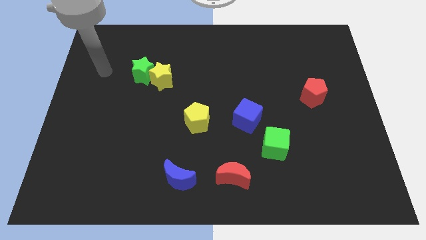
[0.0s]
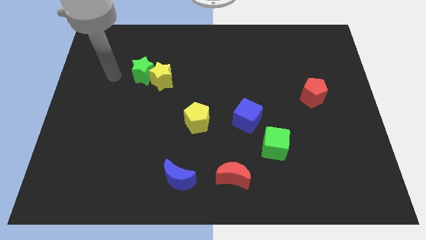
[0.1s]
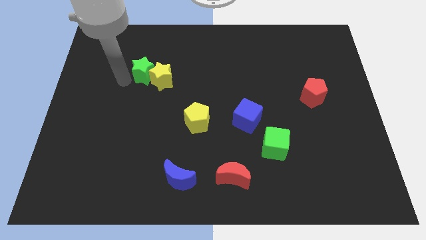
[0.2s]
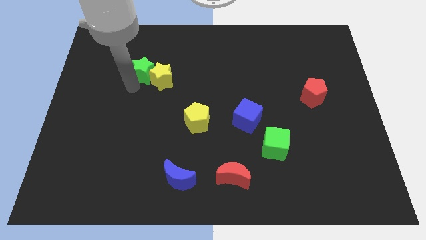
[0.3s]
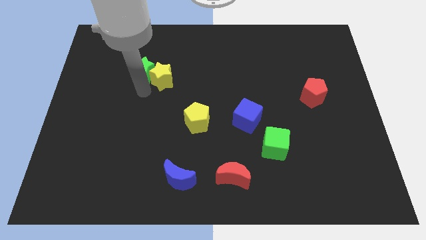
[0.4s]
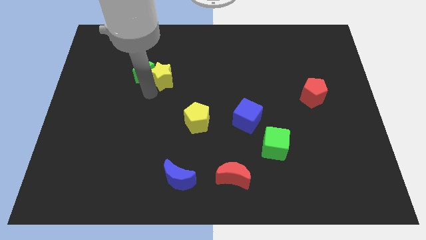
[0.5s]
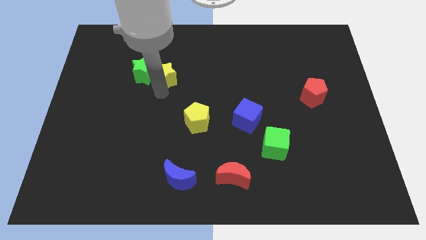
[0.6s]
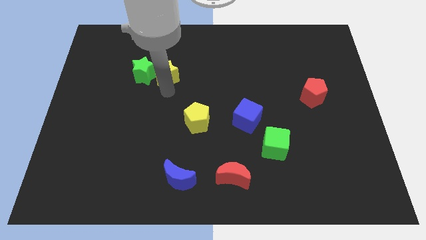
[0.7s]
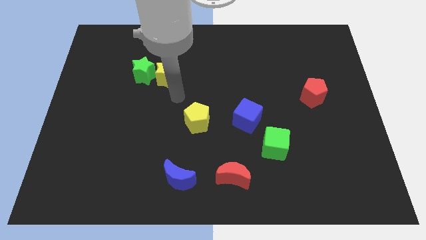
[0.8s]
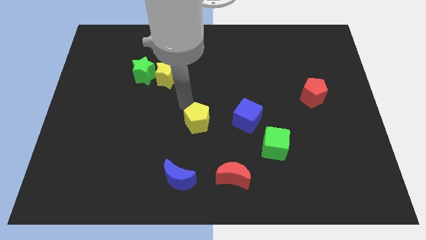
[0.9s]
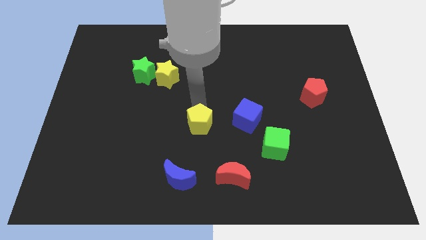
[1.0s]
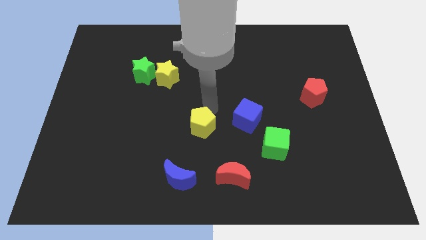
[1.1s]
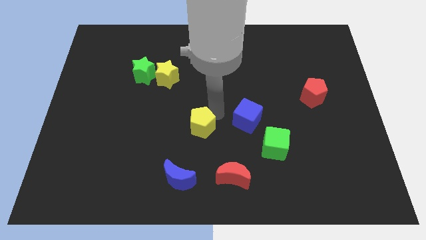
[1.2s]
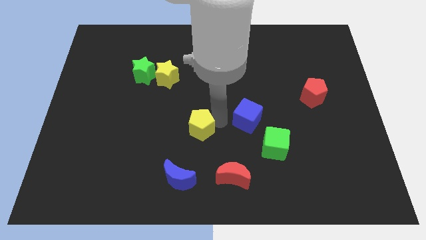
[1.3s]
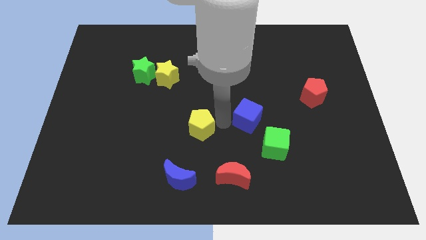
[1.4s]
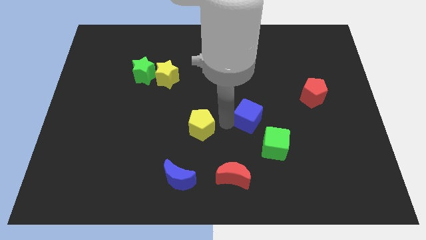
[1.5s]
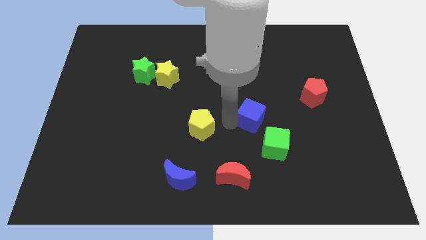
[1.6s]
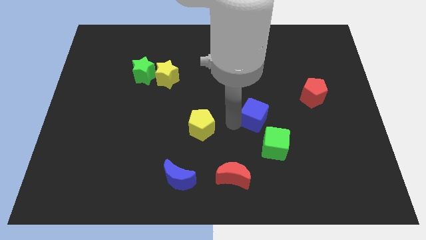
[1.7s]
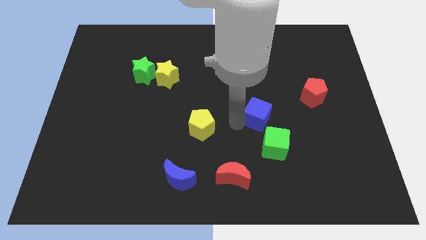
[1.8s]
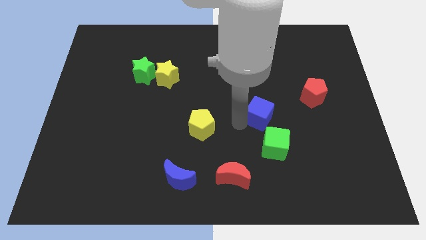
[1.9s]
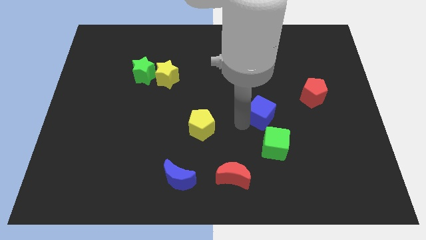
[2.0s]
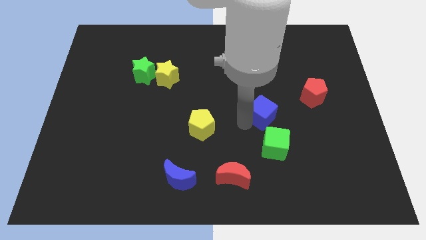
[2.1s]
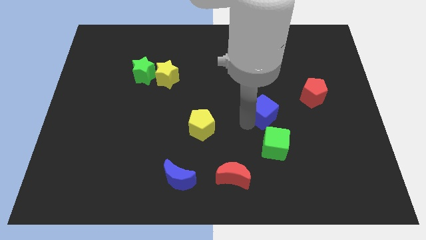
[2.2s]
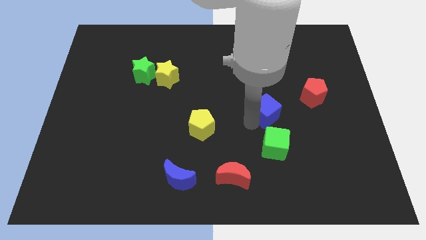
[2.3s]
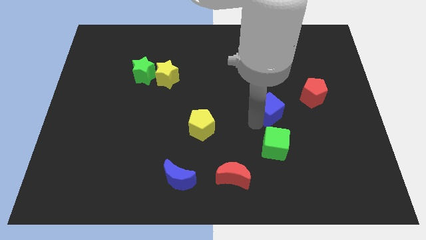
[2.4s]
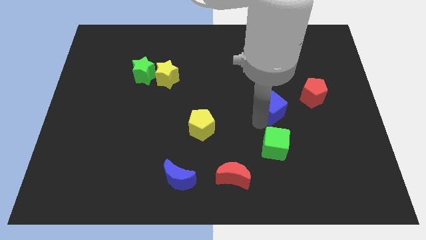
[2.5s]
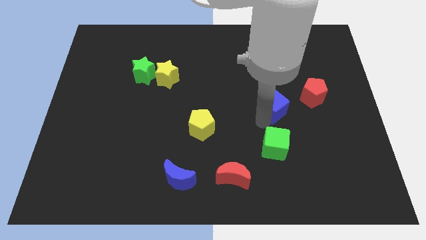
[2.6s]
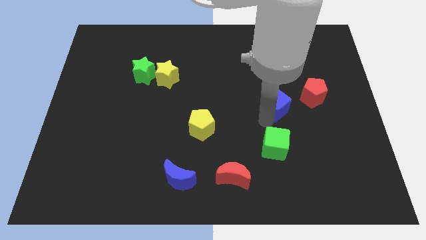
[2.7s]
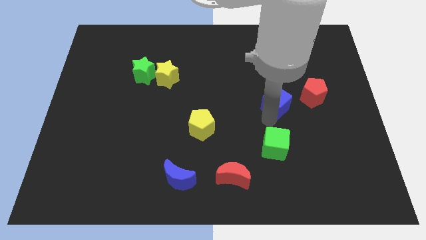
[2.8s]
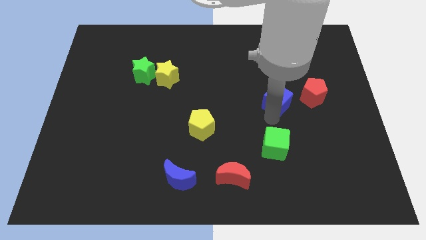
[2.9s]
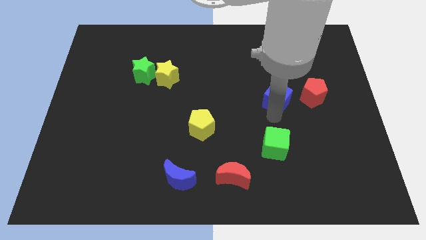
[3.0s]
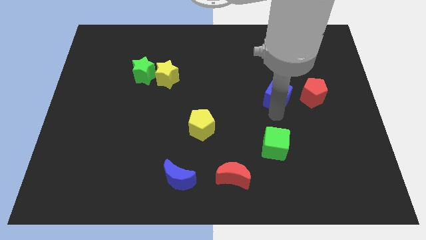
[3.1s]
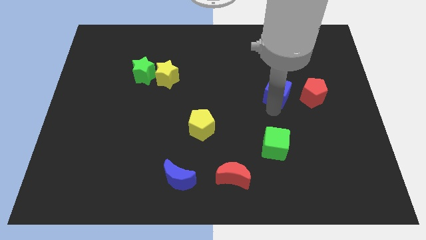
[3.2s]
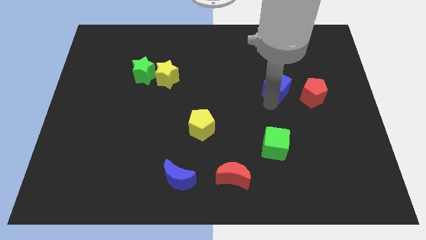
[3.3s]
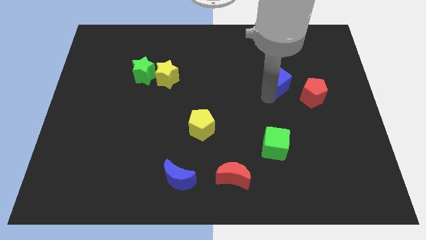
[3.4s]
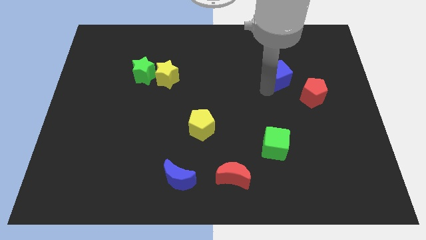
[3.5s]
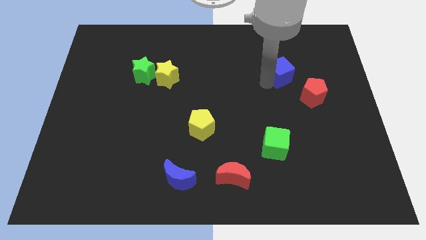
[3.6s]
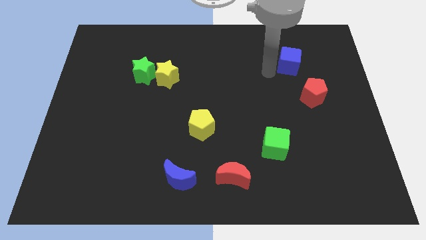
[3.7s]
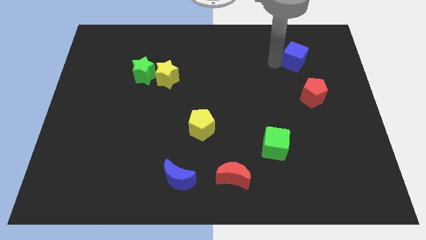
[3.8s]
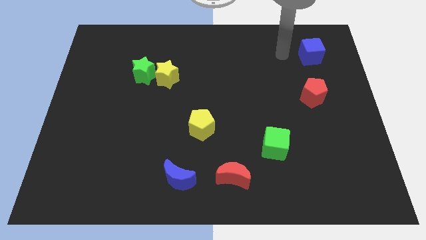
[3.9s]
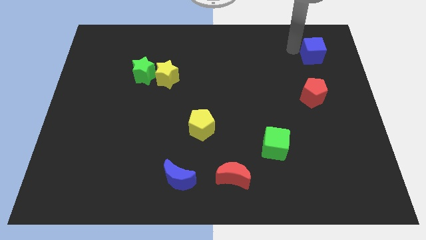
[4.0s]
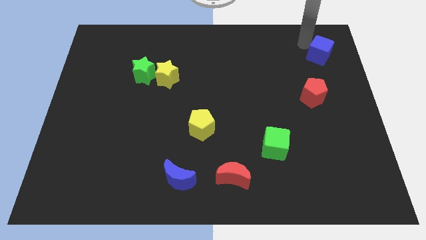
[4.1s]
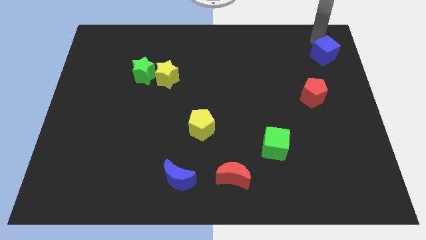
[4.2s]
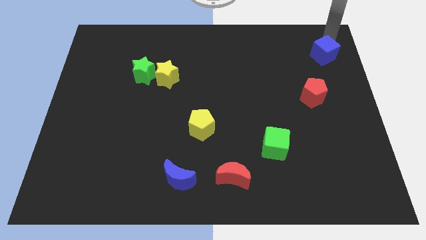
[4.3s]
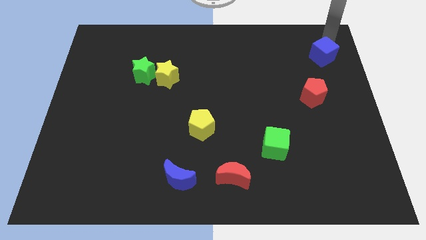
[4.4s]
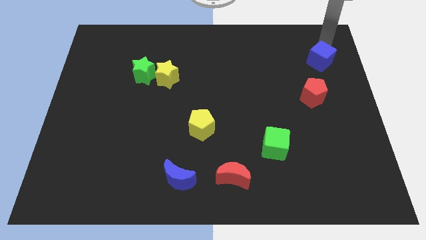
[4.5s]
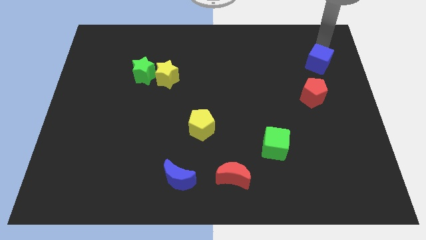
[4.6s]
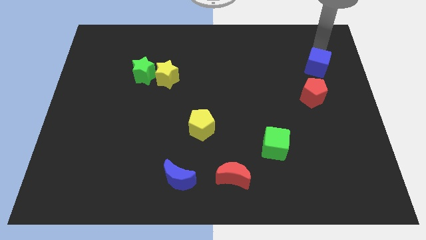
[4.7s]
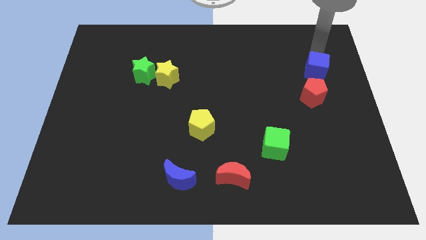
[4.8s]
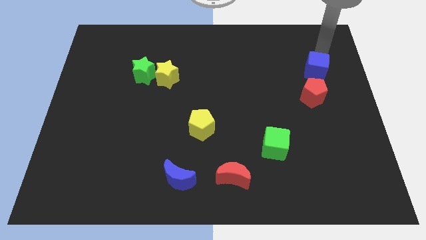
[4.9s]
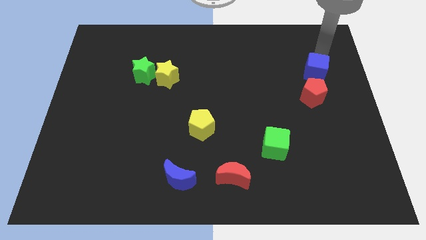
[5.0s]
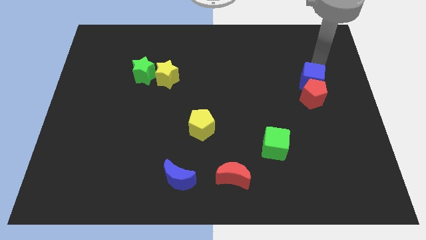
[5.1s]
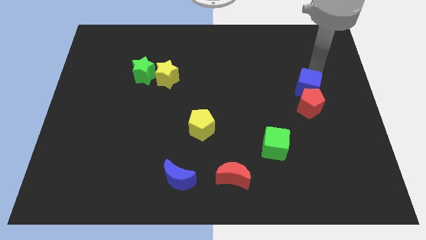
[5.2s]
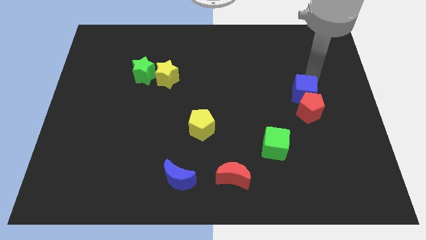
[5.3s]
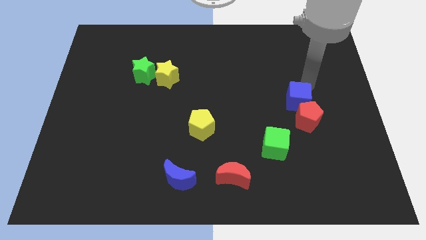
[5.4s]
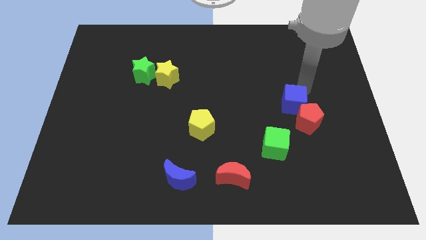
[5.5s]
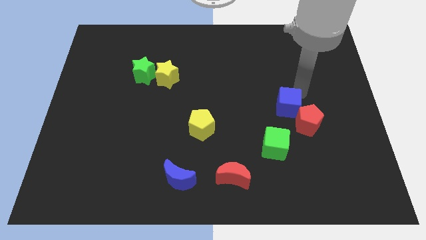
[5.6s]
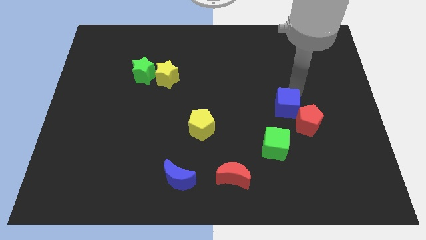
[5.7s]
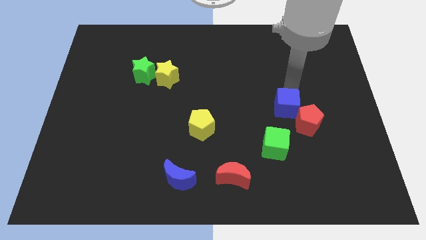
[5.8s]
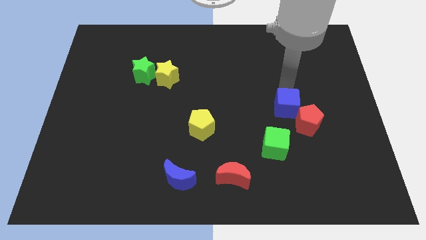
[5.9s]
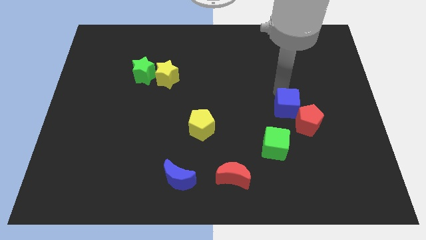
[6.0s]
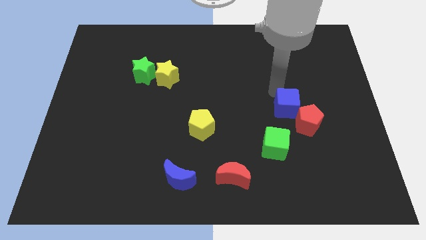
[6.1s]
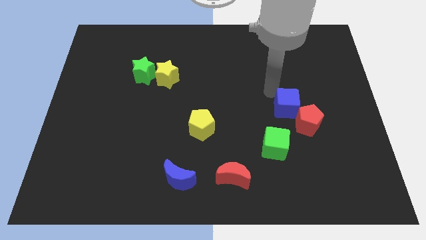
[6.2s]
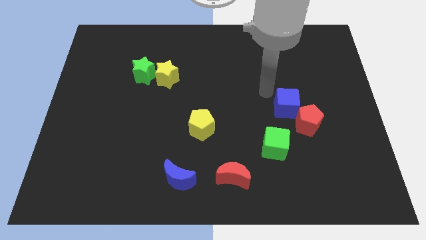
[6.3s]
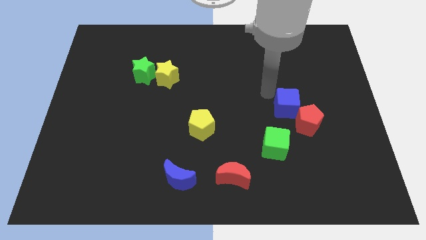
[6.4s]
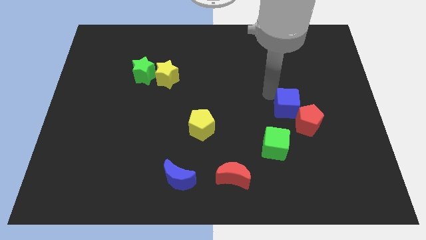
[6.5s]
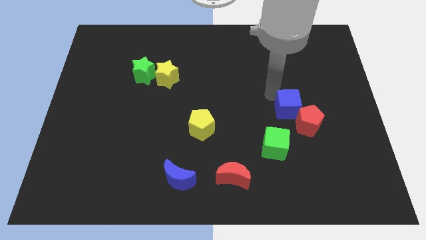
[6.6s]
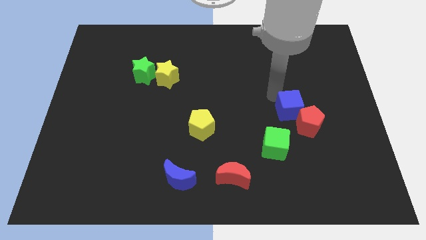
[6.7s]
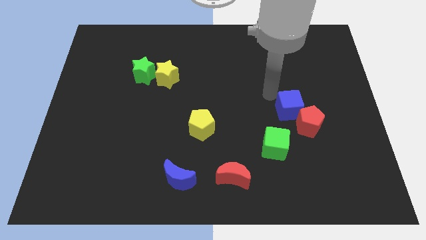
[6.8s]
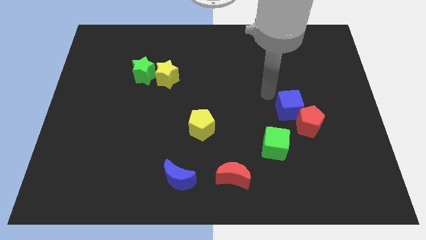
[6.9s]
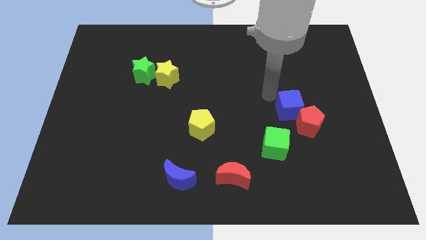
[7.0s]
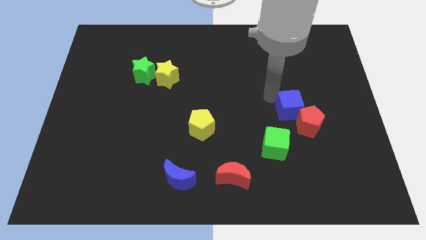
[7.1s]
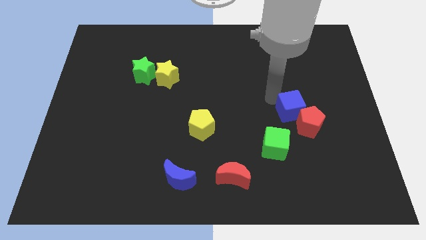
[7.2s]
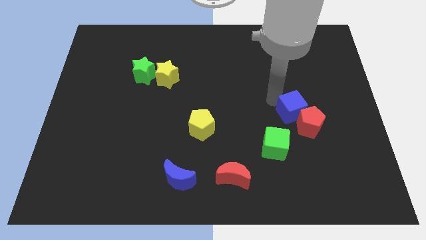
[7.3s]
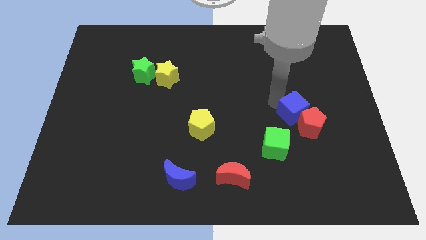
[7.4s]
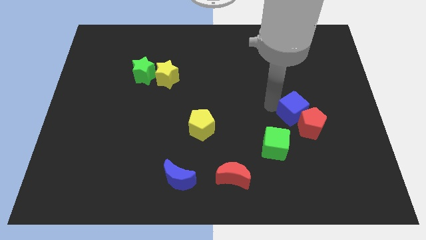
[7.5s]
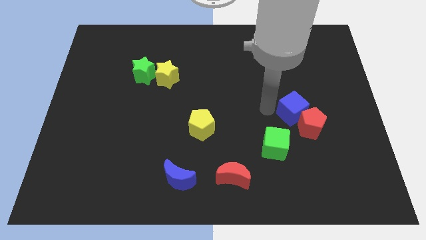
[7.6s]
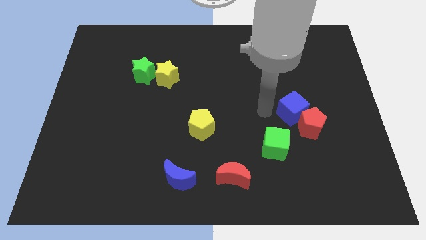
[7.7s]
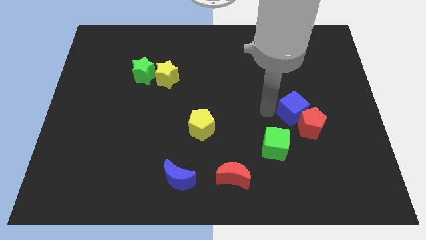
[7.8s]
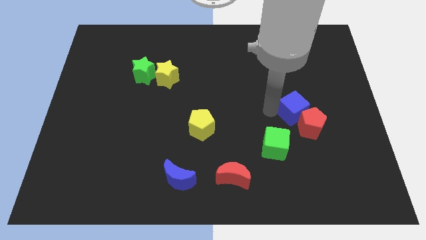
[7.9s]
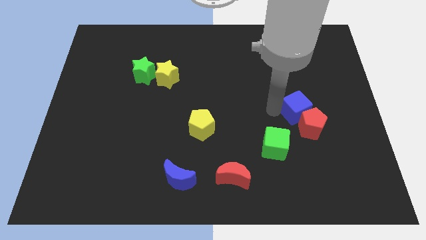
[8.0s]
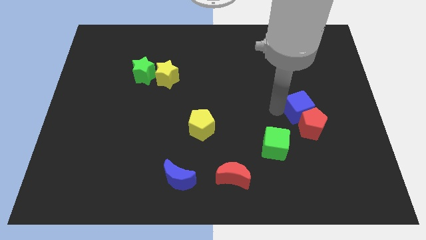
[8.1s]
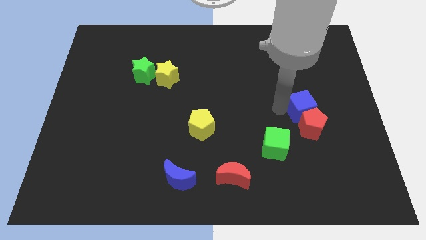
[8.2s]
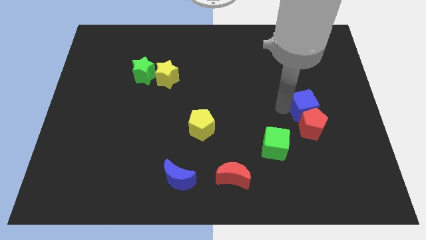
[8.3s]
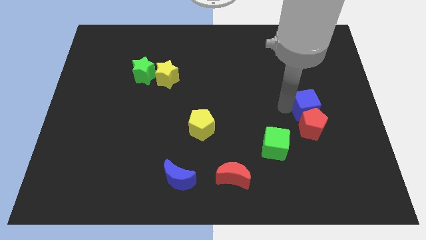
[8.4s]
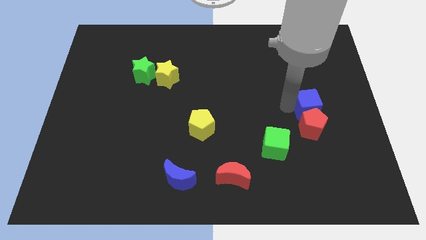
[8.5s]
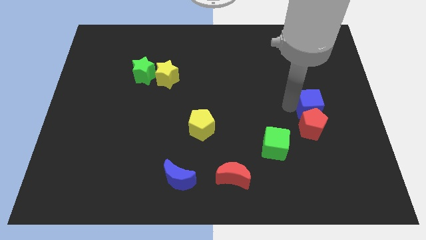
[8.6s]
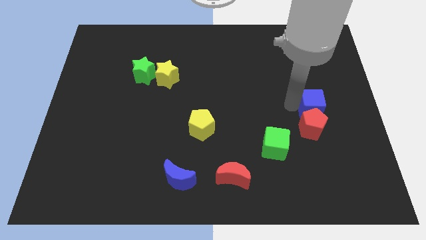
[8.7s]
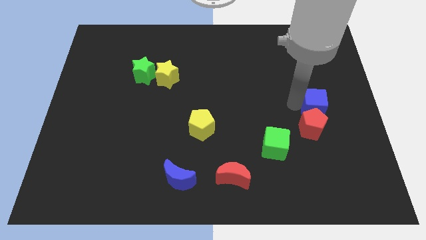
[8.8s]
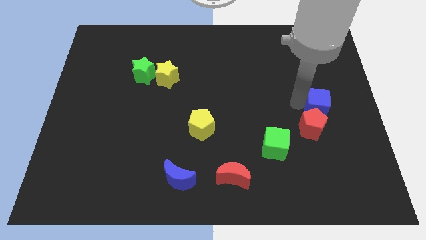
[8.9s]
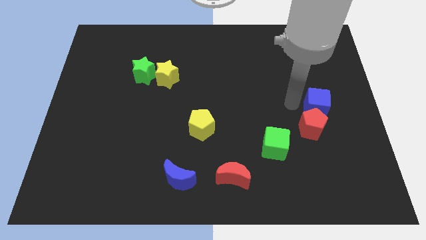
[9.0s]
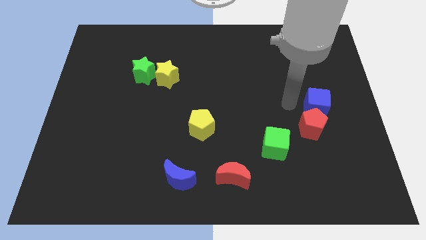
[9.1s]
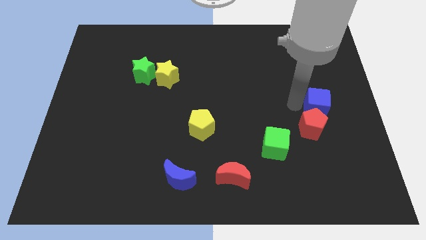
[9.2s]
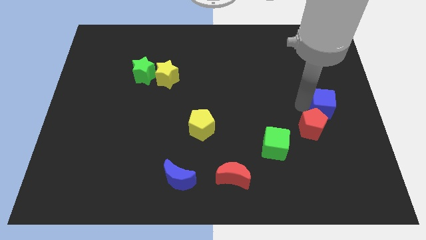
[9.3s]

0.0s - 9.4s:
push the blue cube to the right side
